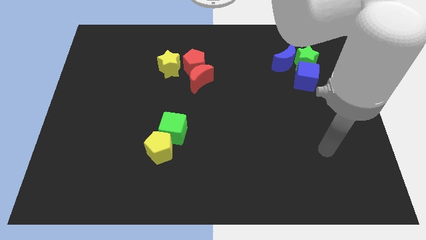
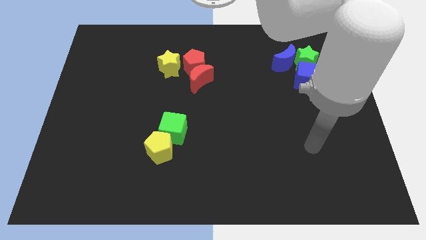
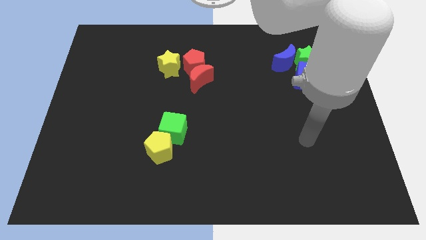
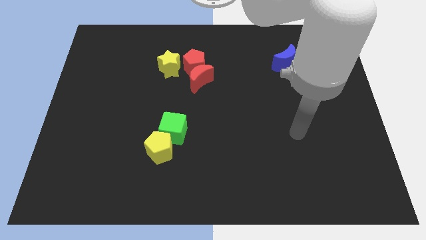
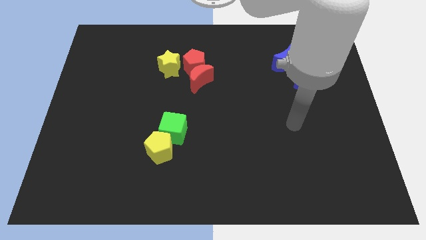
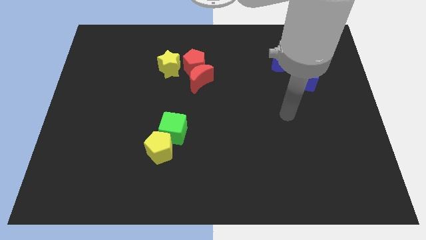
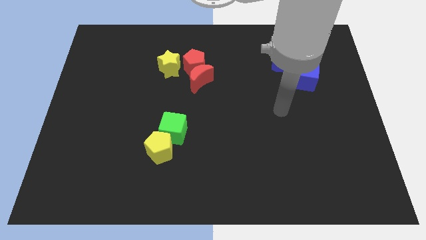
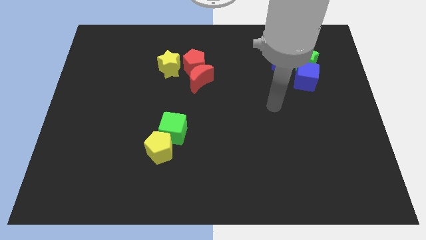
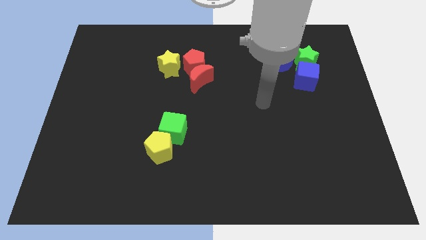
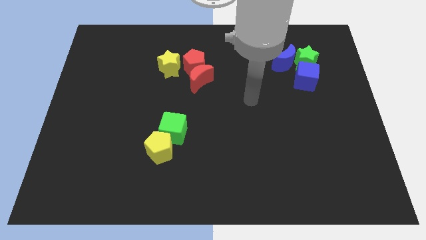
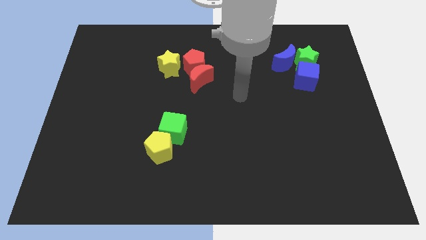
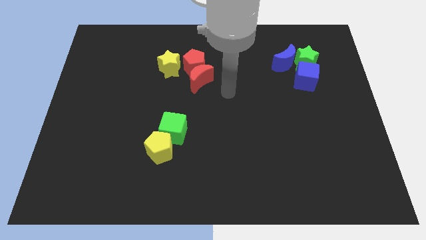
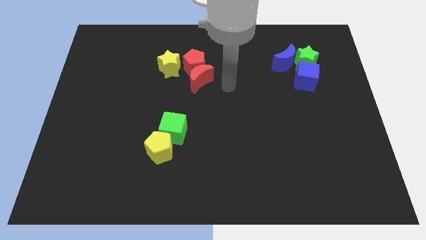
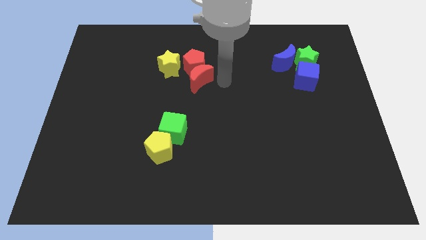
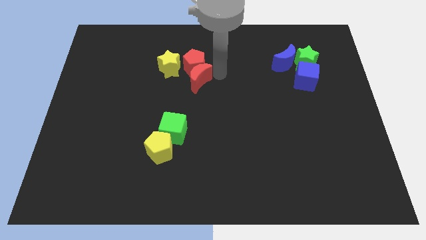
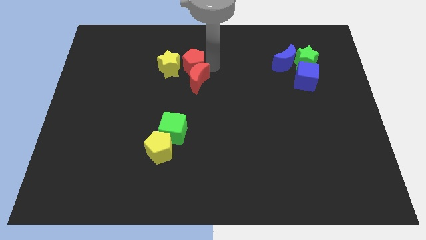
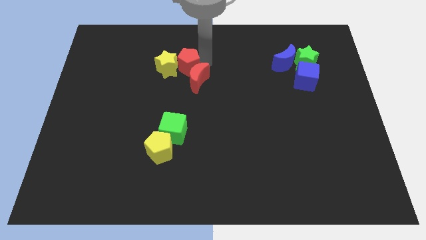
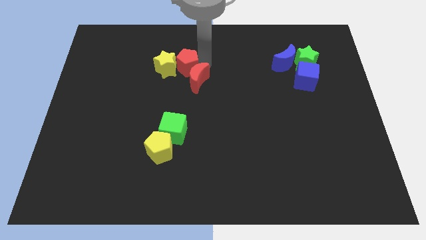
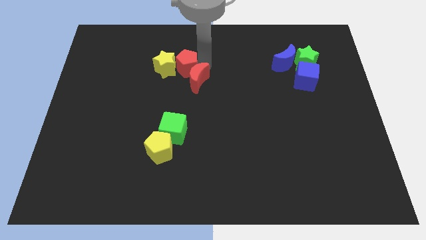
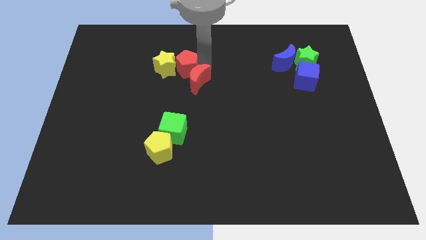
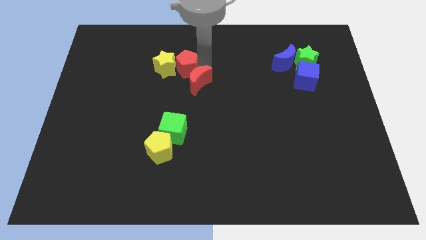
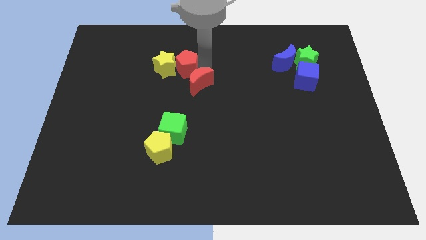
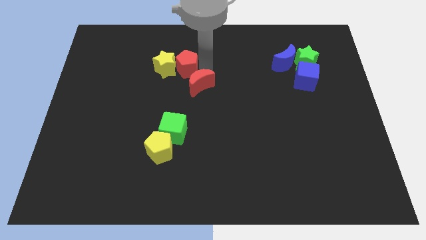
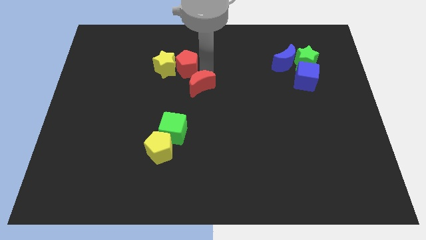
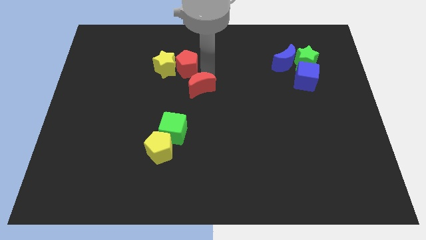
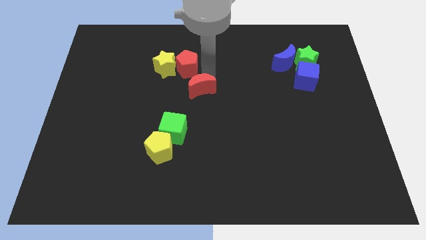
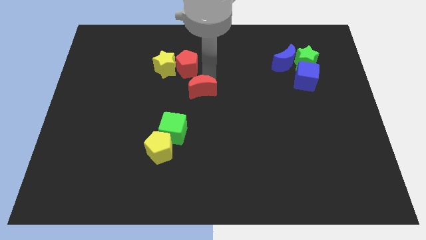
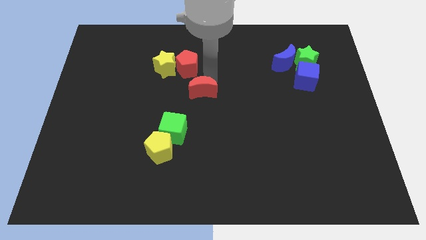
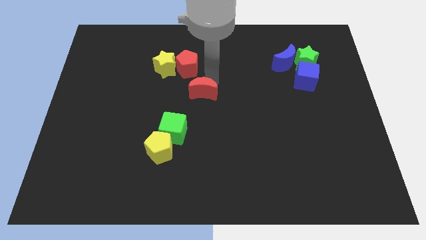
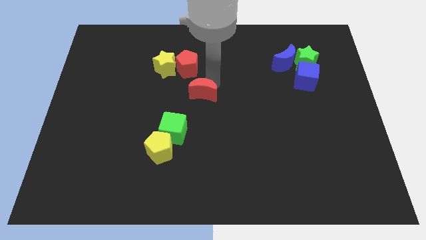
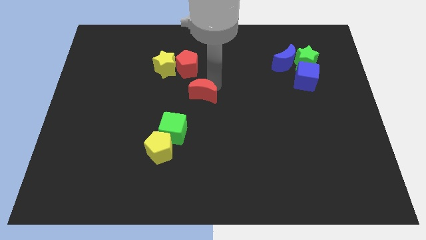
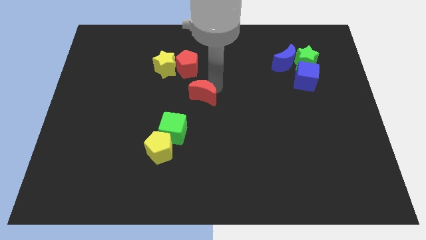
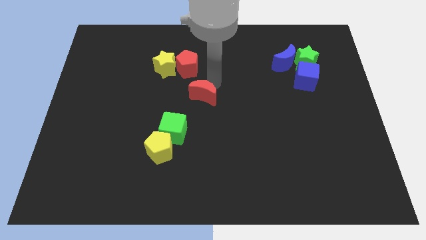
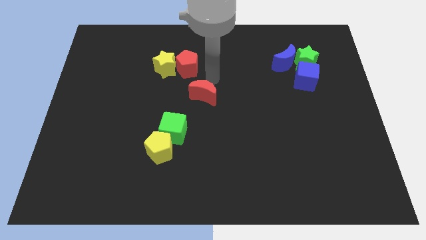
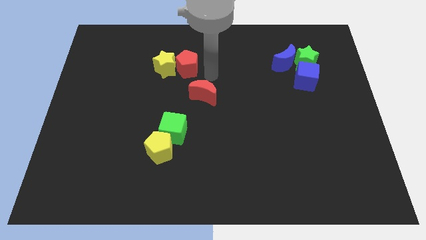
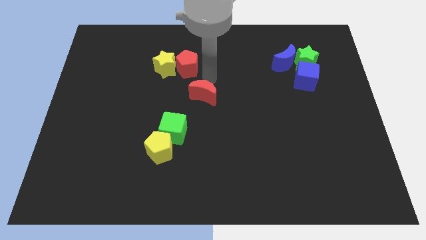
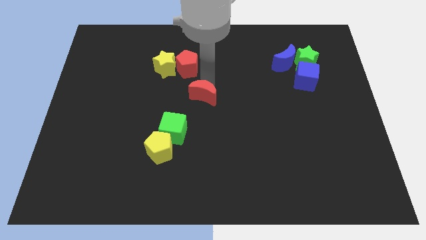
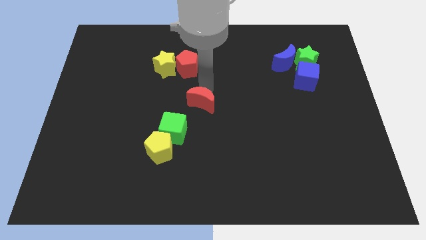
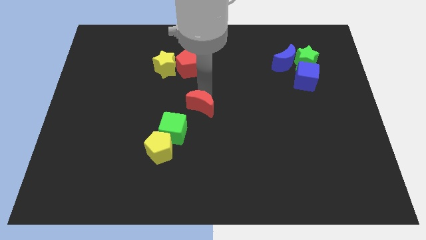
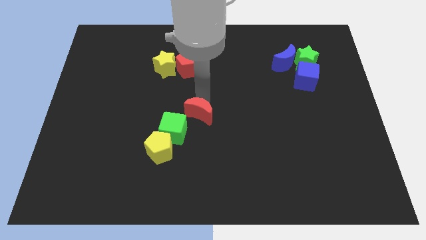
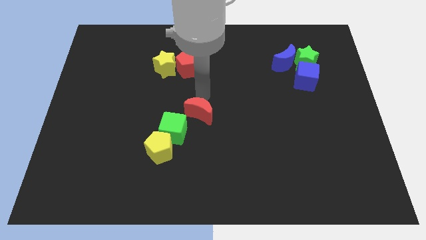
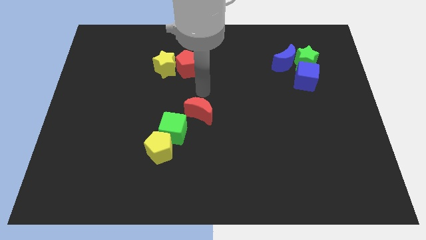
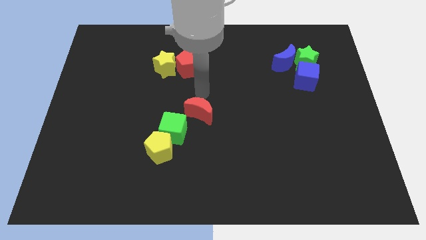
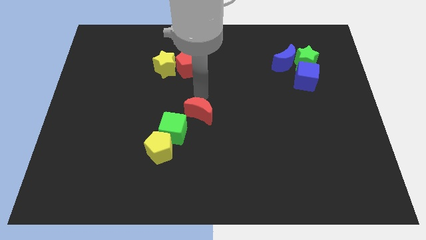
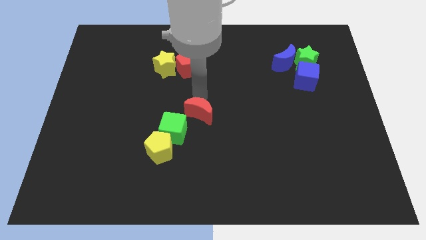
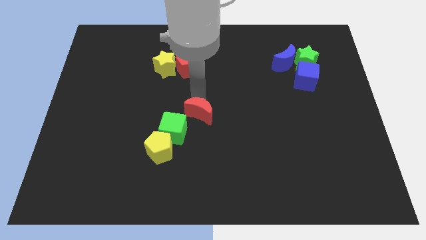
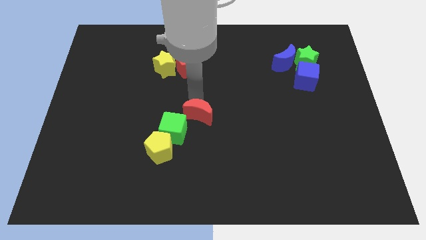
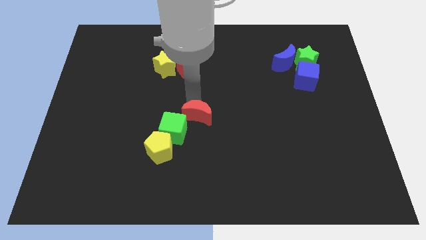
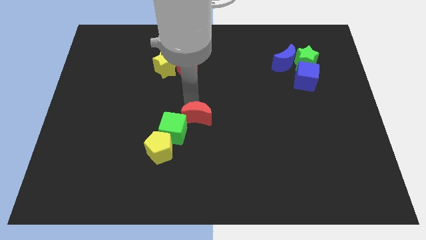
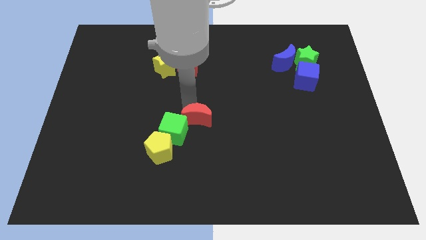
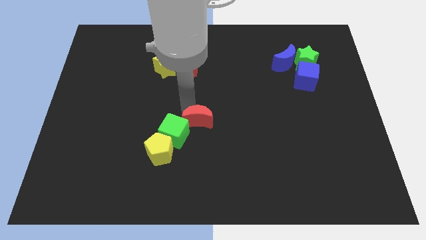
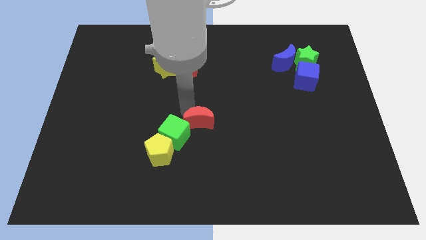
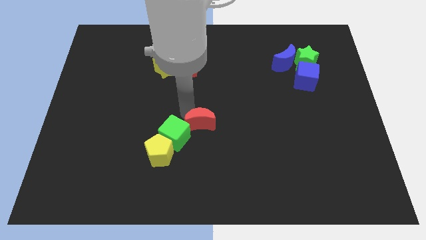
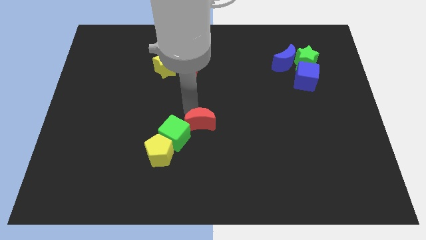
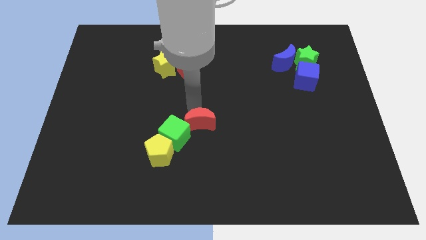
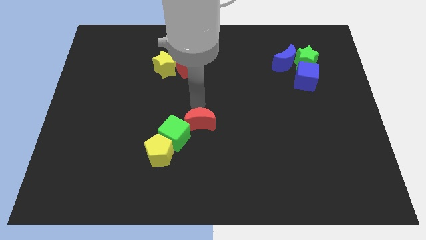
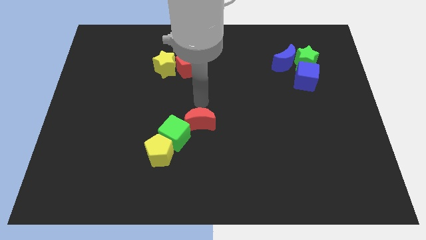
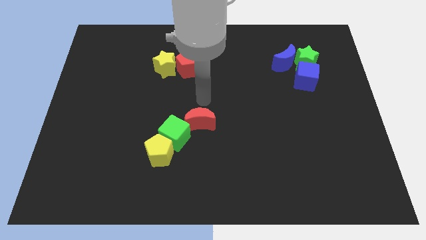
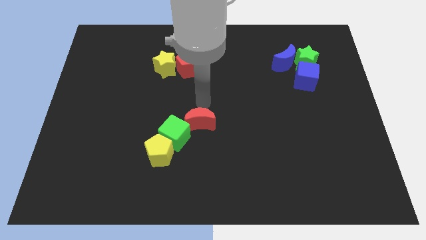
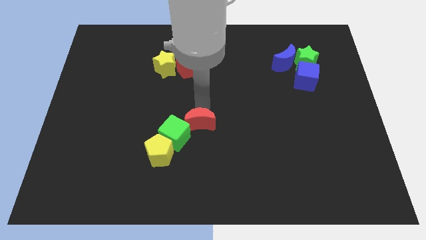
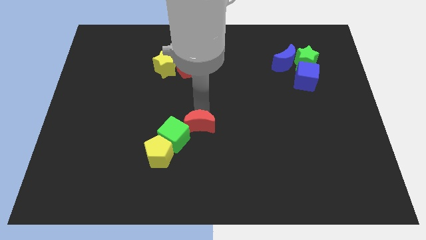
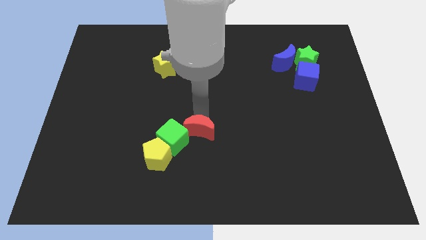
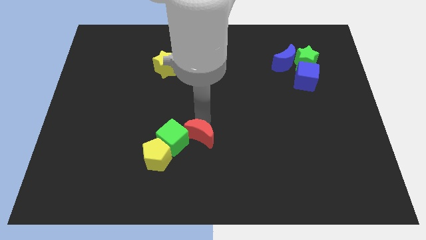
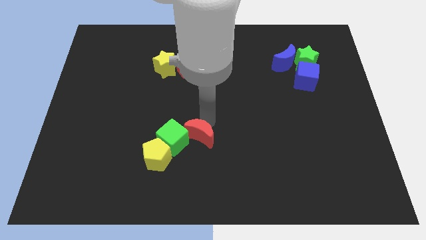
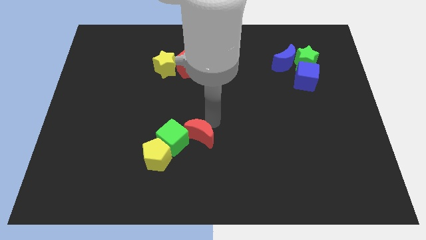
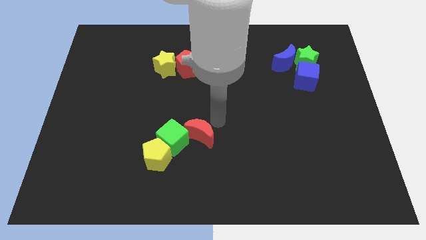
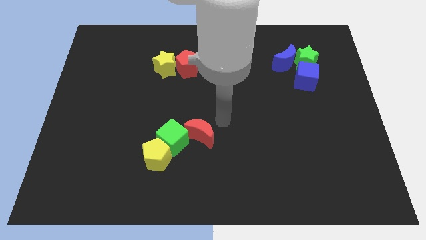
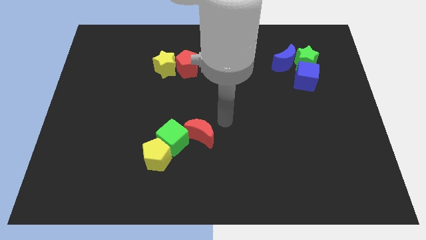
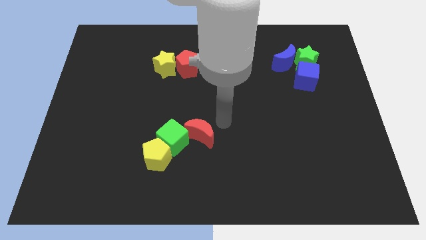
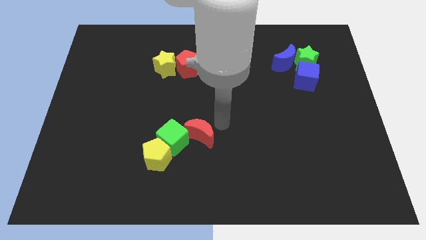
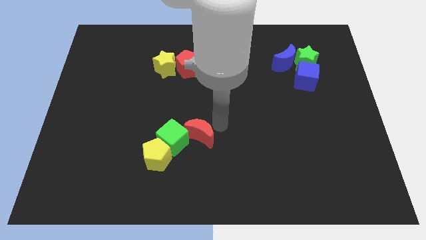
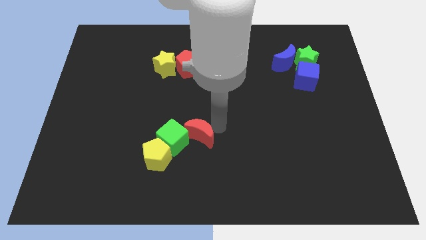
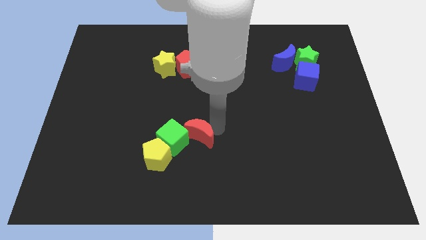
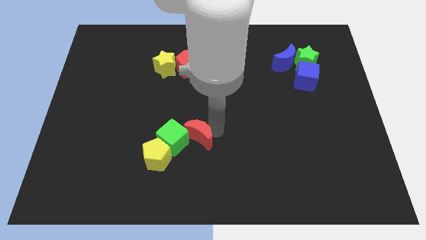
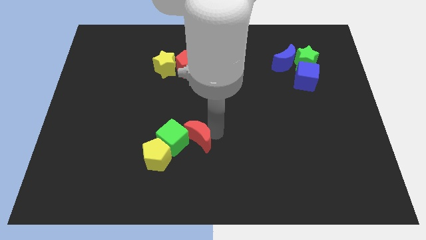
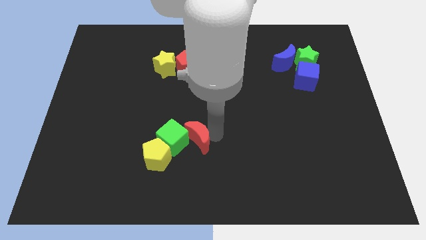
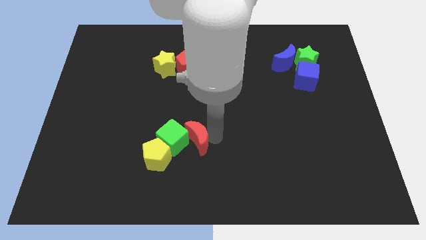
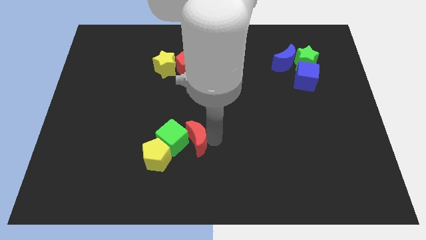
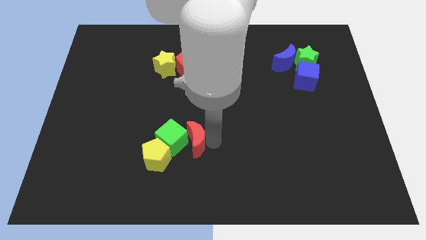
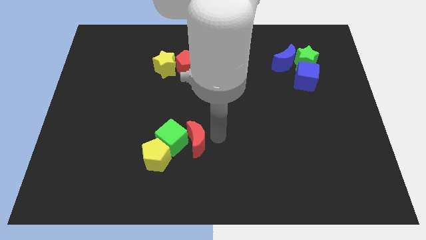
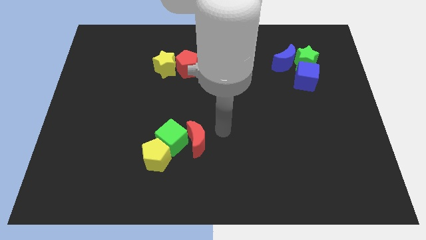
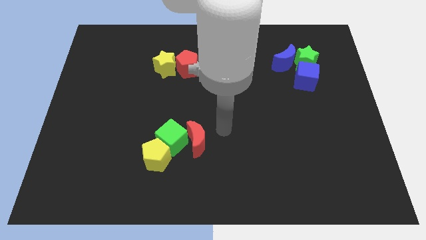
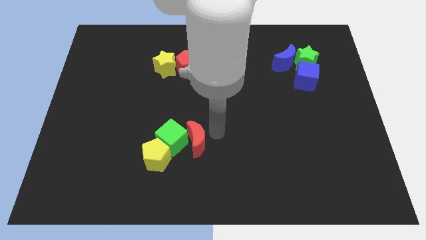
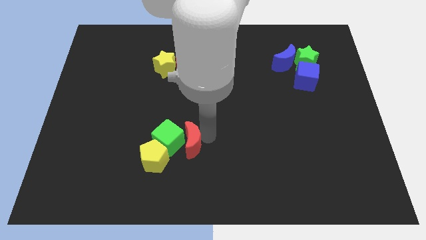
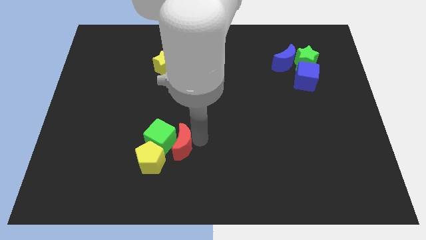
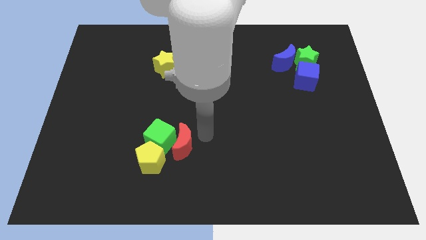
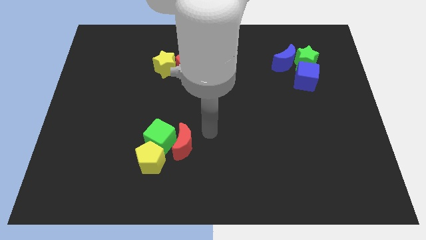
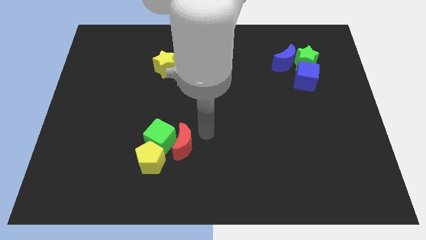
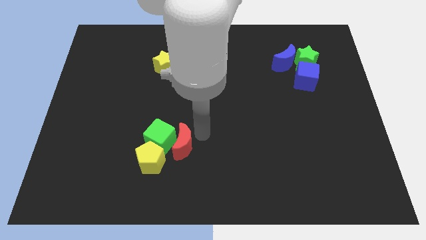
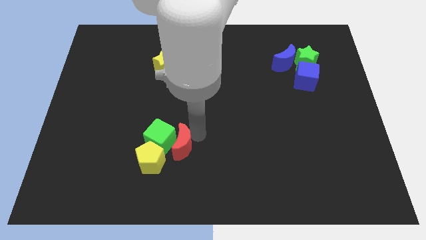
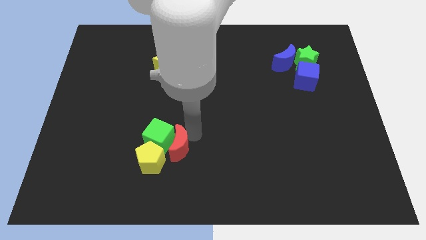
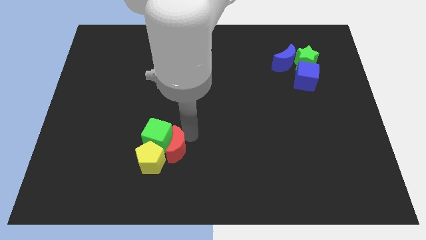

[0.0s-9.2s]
put the red moon next to the yellow pentagon
